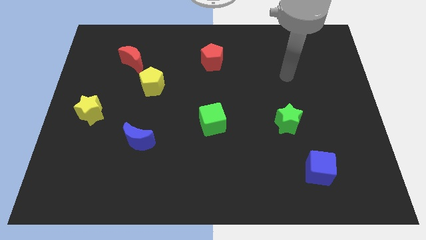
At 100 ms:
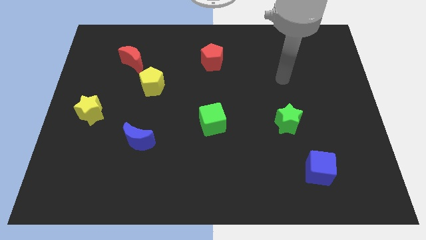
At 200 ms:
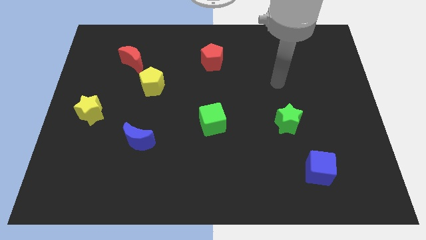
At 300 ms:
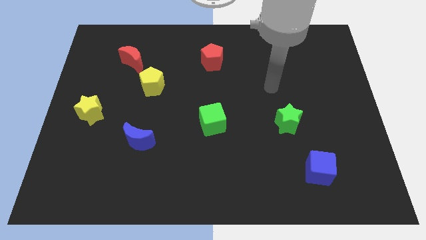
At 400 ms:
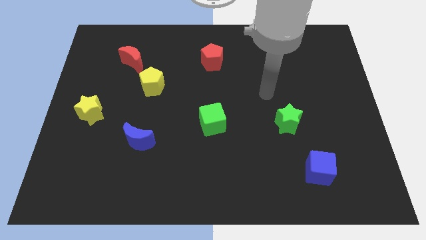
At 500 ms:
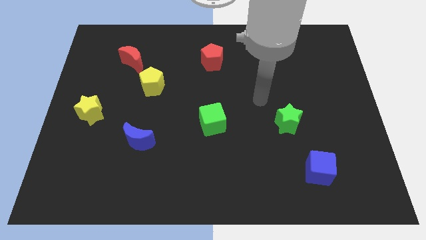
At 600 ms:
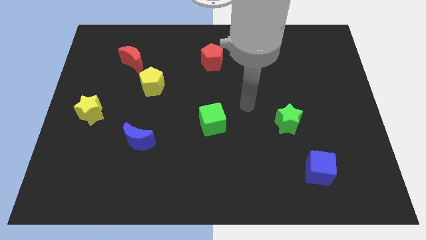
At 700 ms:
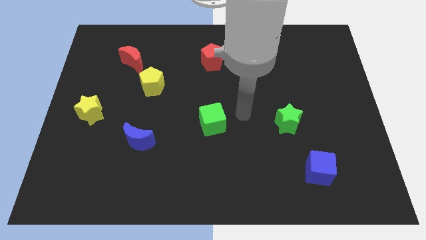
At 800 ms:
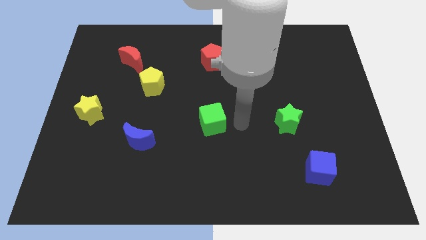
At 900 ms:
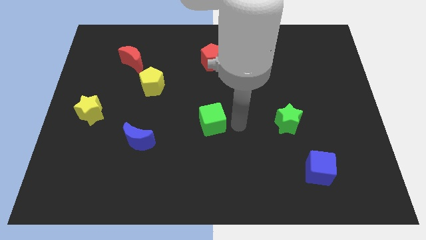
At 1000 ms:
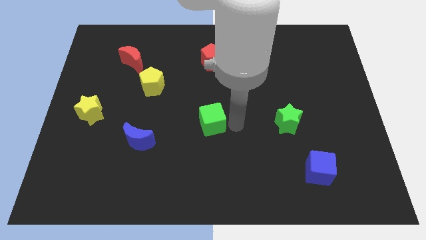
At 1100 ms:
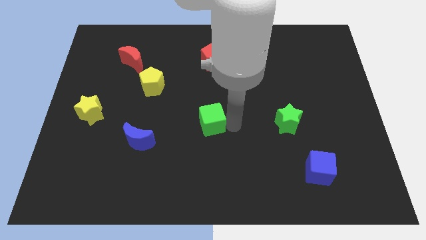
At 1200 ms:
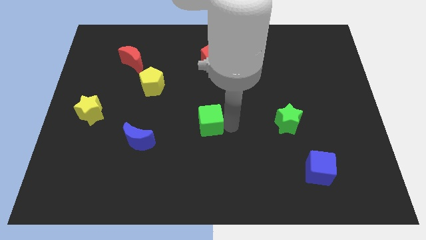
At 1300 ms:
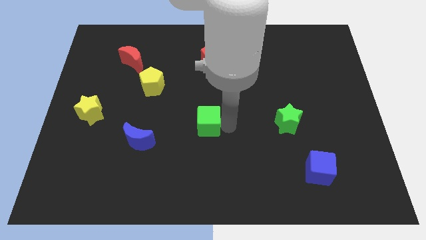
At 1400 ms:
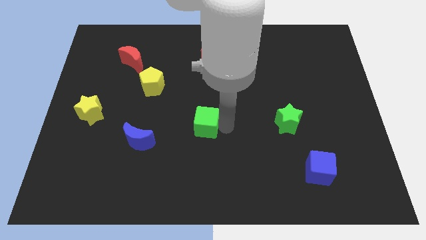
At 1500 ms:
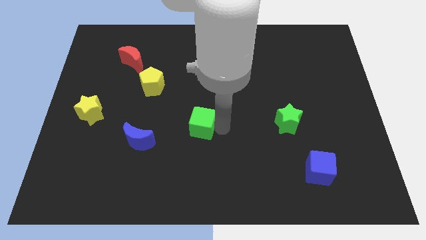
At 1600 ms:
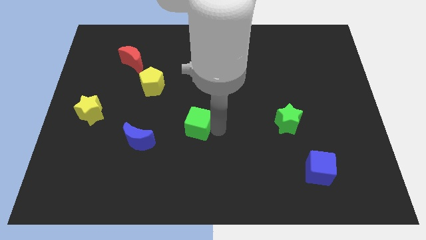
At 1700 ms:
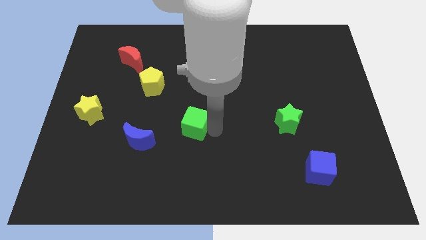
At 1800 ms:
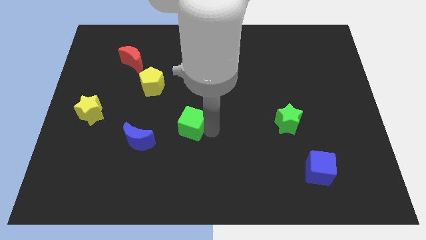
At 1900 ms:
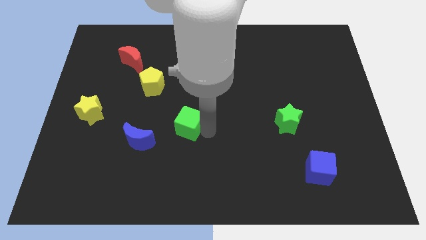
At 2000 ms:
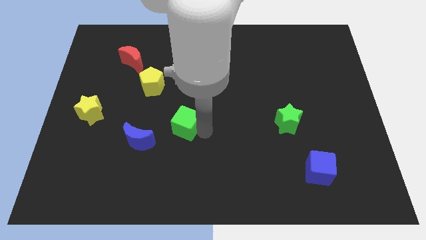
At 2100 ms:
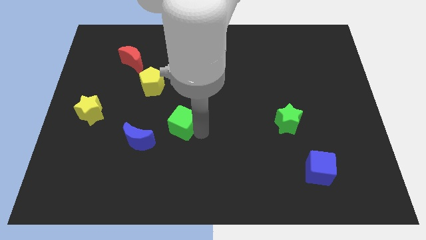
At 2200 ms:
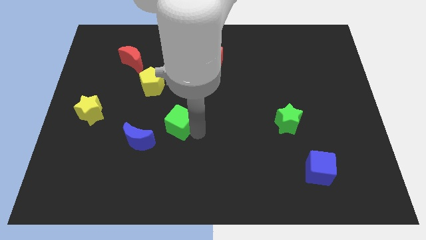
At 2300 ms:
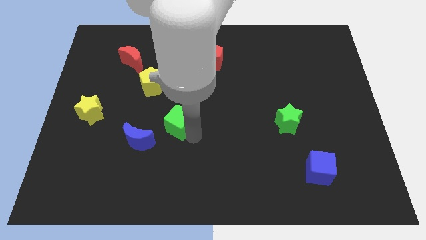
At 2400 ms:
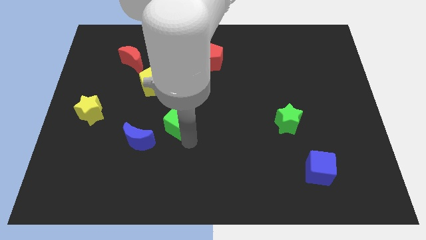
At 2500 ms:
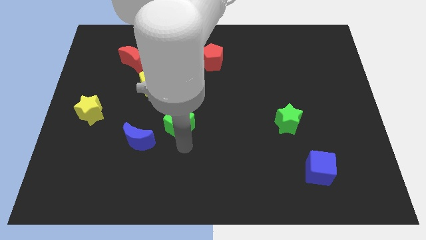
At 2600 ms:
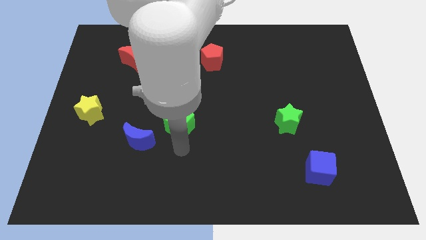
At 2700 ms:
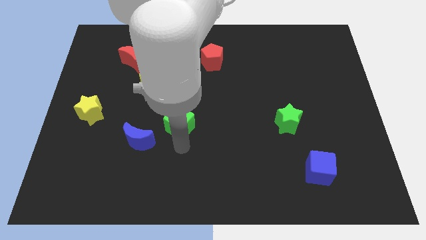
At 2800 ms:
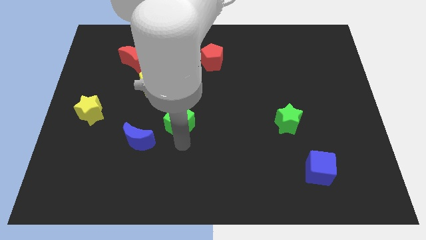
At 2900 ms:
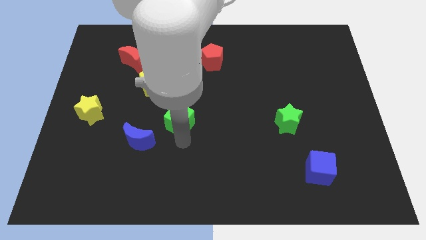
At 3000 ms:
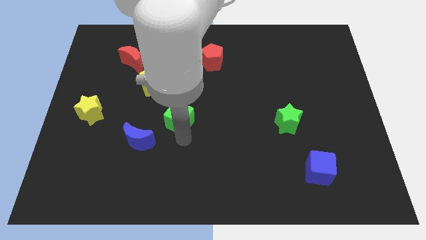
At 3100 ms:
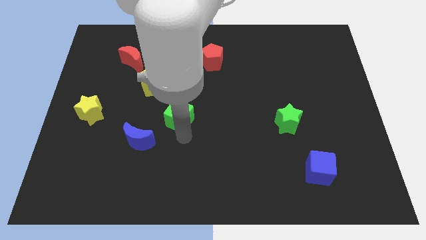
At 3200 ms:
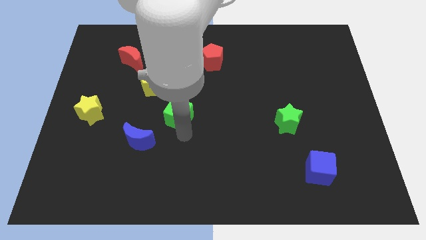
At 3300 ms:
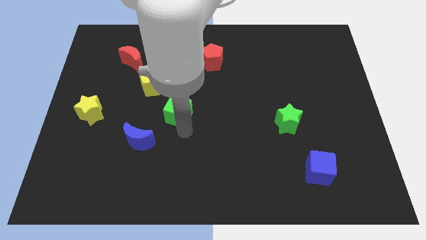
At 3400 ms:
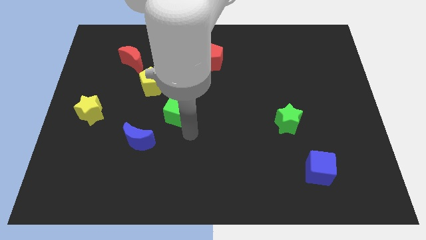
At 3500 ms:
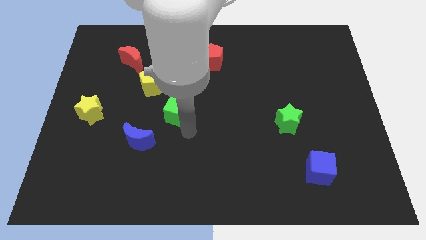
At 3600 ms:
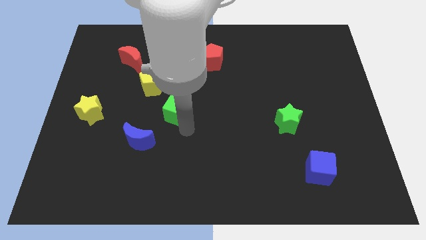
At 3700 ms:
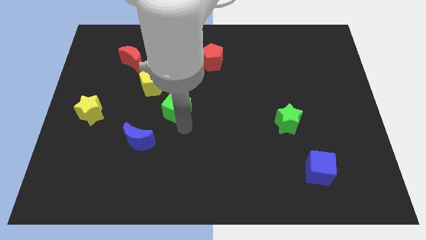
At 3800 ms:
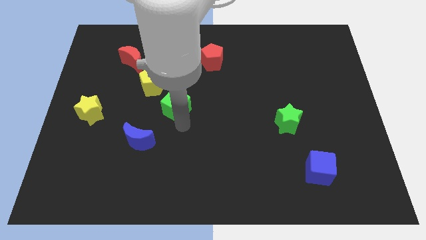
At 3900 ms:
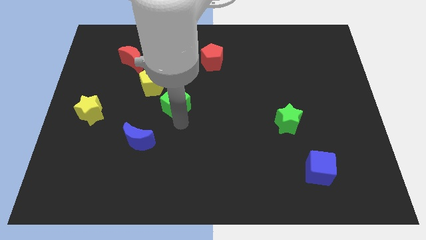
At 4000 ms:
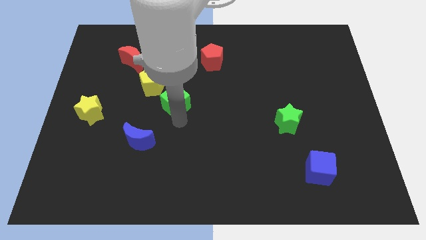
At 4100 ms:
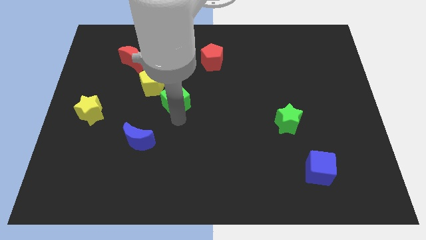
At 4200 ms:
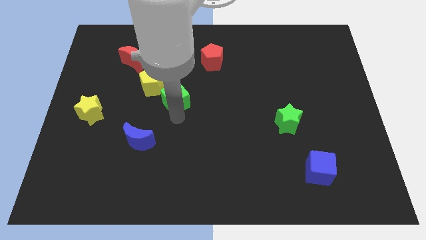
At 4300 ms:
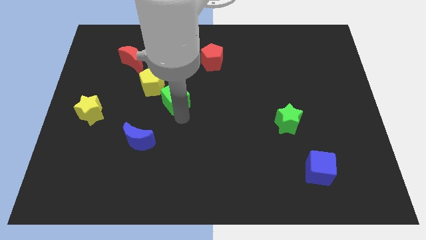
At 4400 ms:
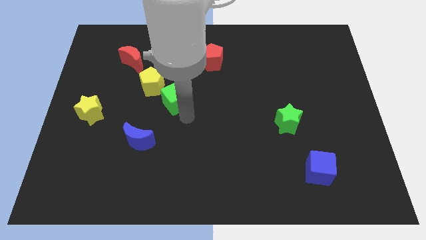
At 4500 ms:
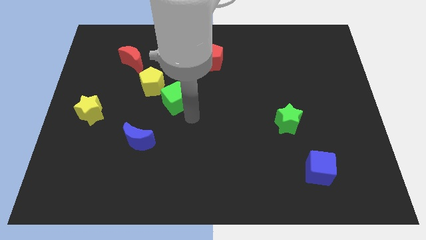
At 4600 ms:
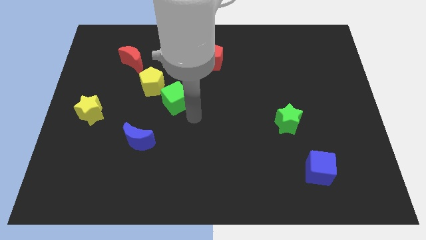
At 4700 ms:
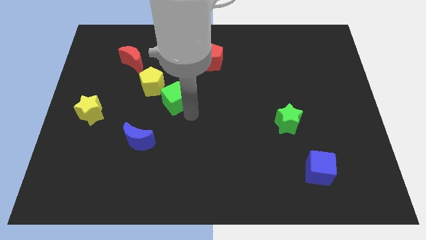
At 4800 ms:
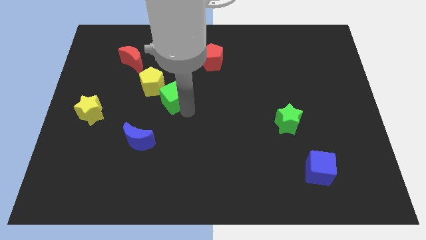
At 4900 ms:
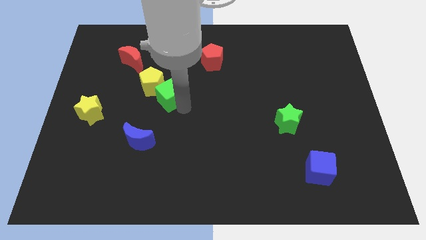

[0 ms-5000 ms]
move the green cube to the yellow pentagon

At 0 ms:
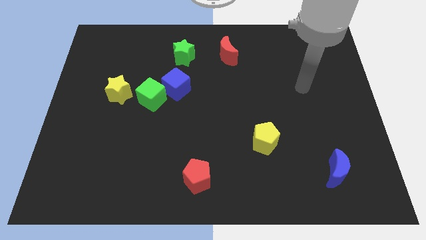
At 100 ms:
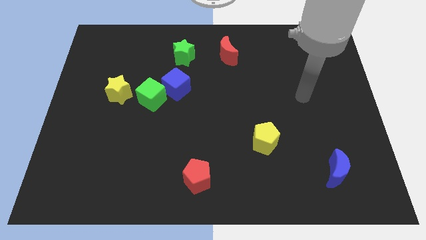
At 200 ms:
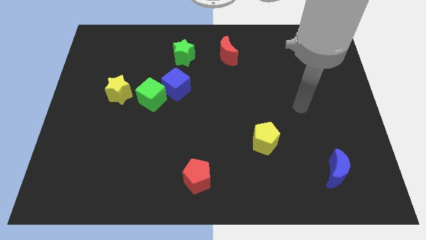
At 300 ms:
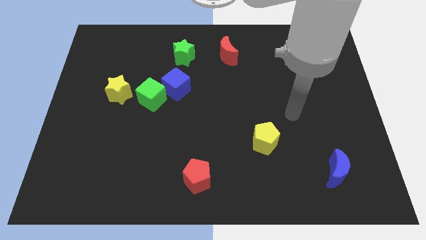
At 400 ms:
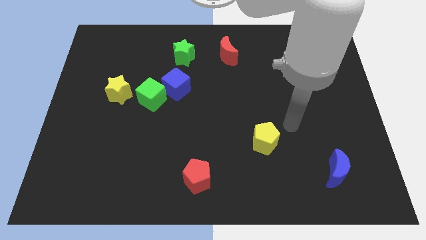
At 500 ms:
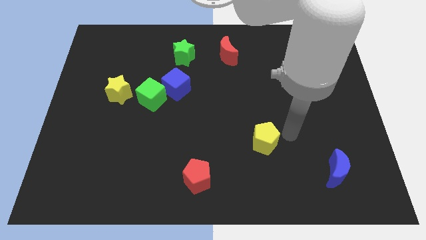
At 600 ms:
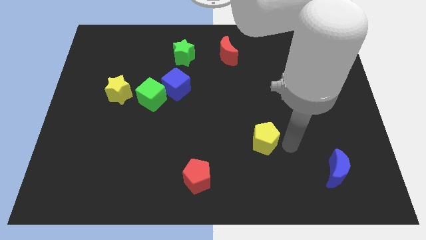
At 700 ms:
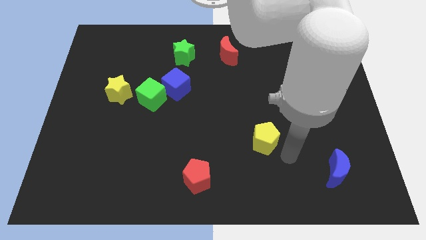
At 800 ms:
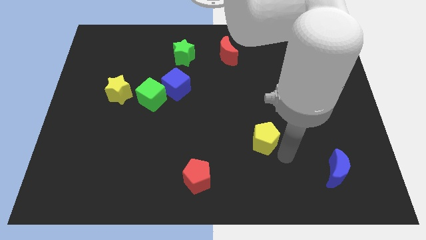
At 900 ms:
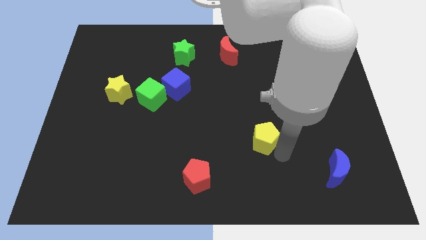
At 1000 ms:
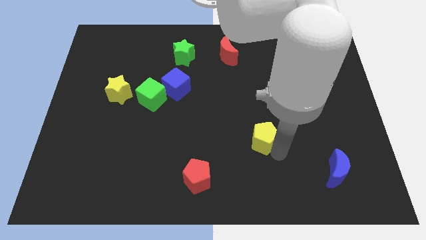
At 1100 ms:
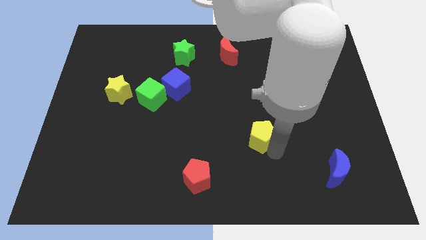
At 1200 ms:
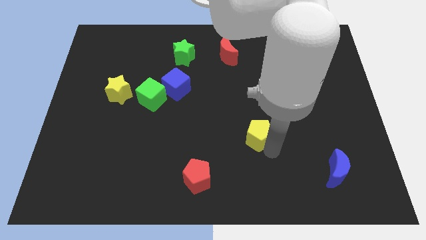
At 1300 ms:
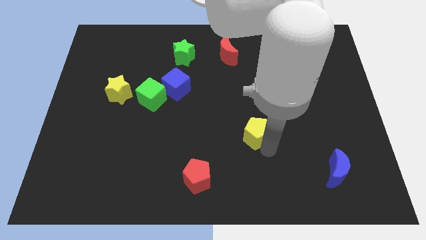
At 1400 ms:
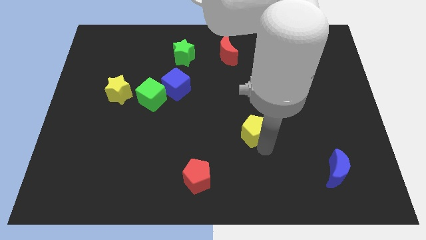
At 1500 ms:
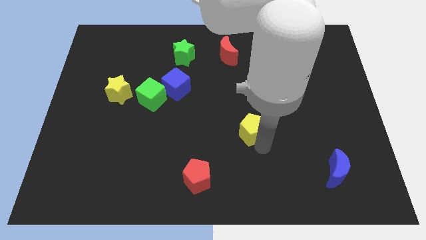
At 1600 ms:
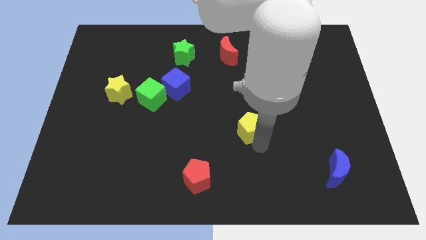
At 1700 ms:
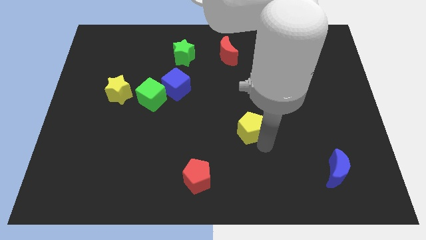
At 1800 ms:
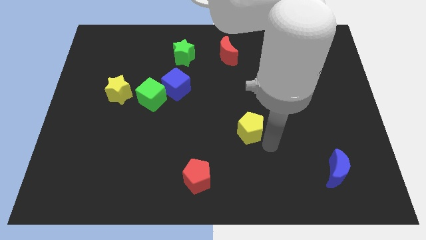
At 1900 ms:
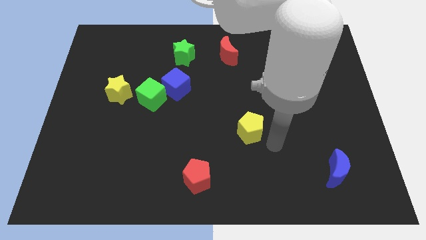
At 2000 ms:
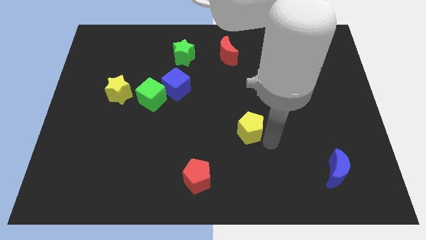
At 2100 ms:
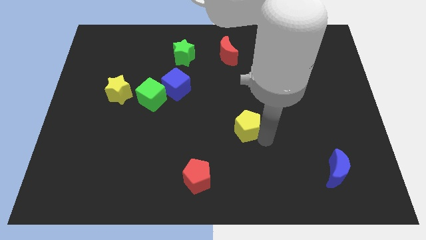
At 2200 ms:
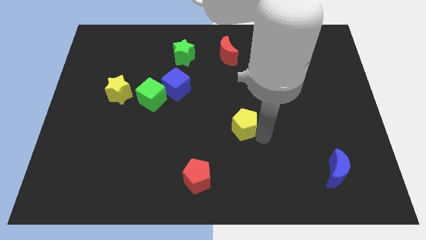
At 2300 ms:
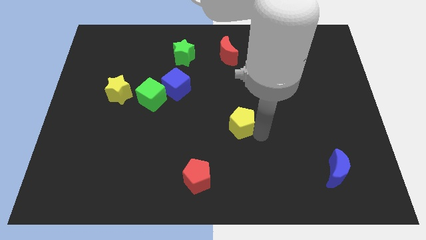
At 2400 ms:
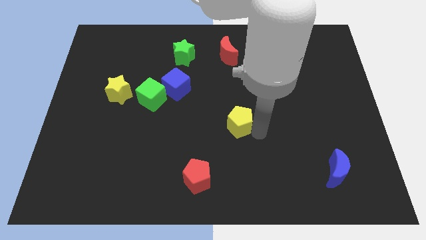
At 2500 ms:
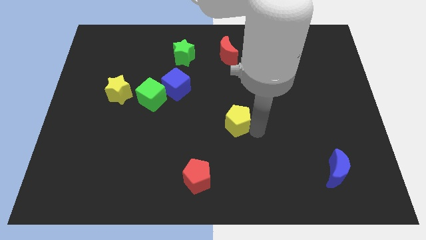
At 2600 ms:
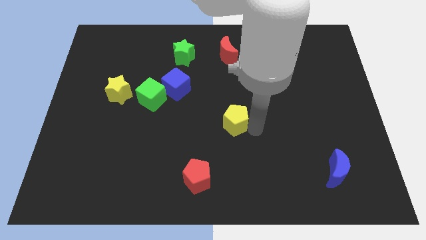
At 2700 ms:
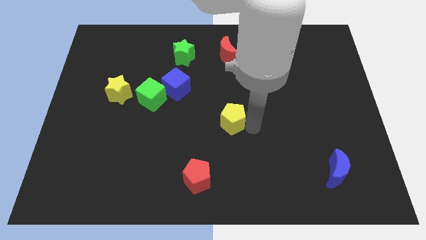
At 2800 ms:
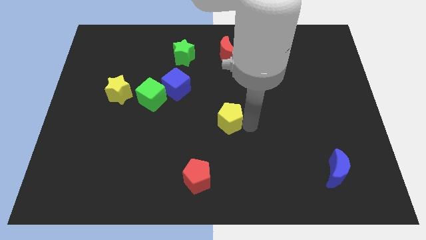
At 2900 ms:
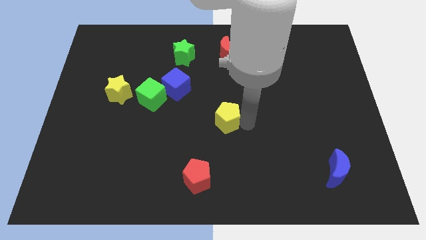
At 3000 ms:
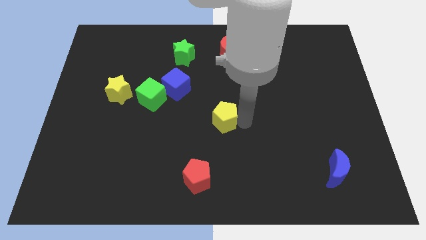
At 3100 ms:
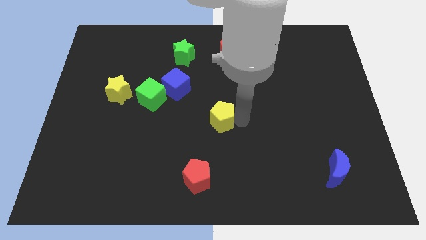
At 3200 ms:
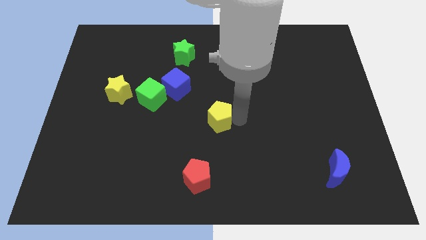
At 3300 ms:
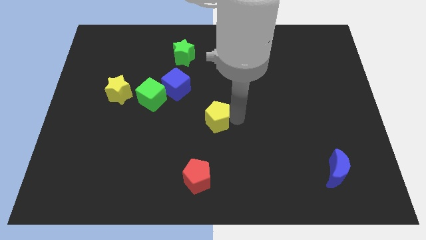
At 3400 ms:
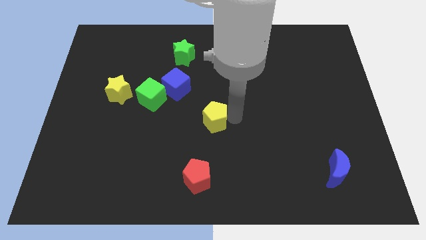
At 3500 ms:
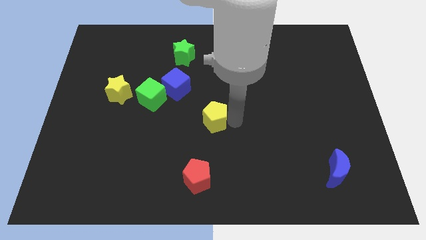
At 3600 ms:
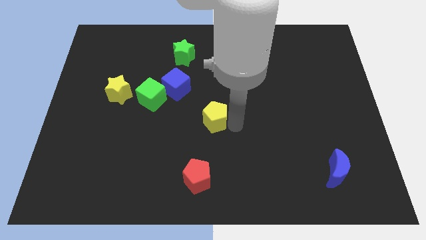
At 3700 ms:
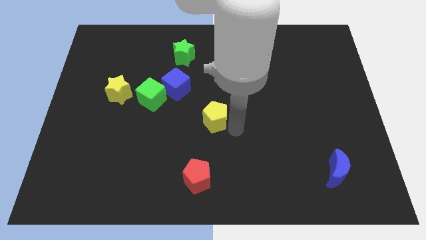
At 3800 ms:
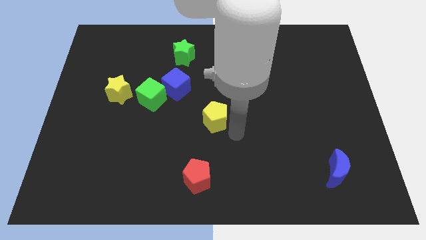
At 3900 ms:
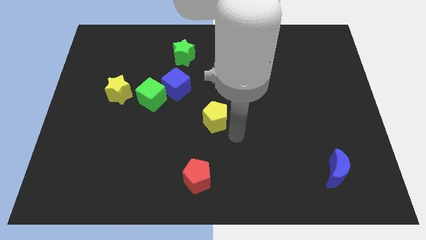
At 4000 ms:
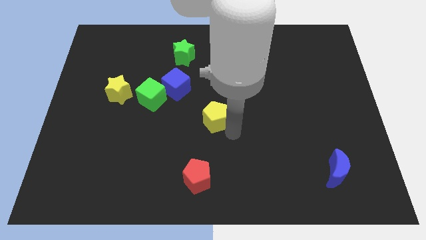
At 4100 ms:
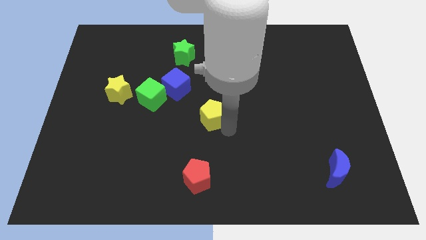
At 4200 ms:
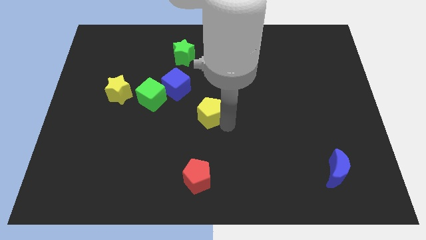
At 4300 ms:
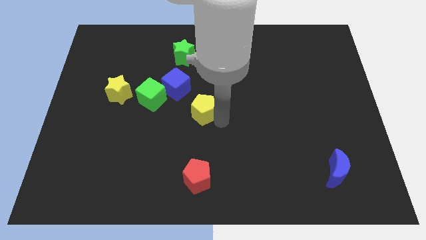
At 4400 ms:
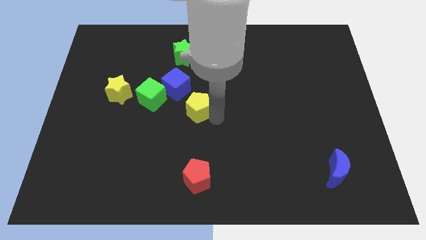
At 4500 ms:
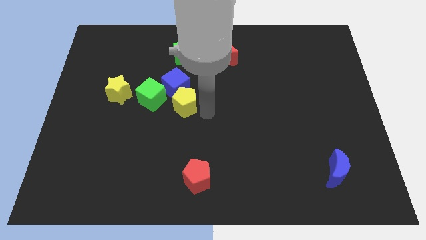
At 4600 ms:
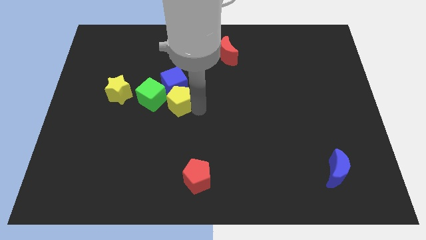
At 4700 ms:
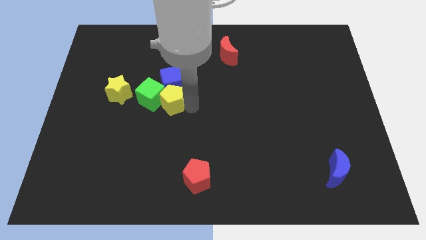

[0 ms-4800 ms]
put the yellow pentagon next to the green cube
